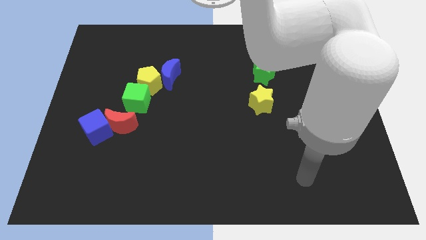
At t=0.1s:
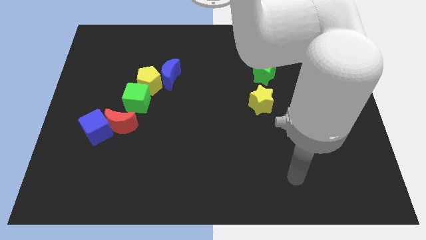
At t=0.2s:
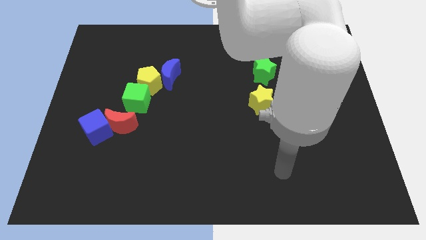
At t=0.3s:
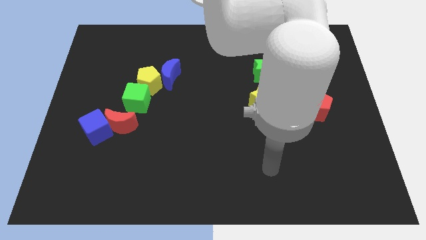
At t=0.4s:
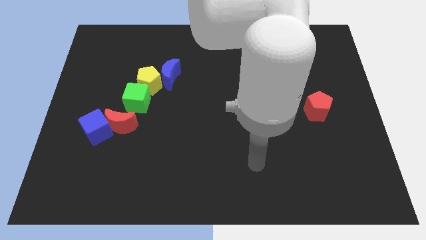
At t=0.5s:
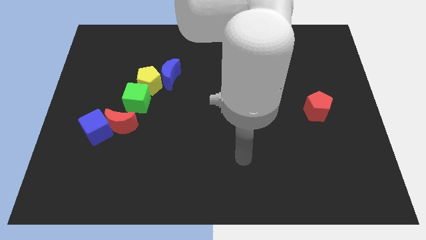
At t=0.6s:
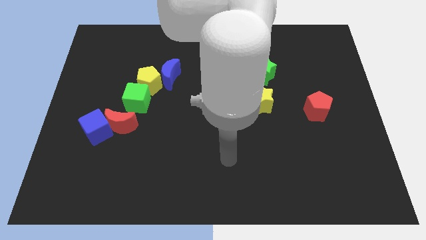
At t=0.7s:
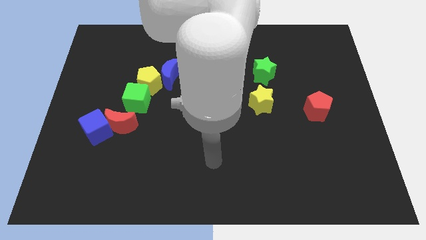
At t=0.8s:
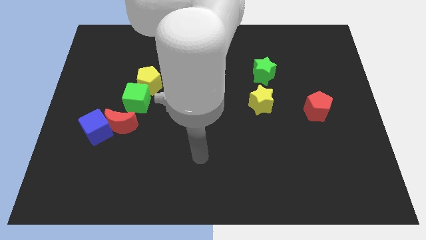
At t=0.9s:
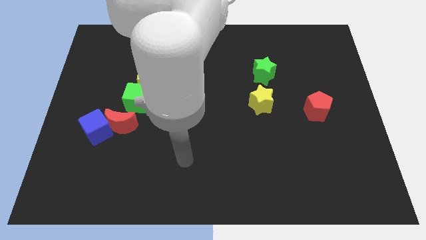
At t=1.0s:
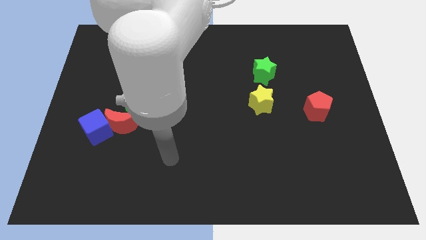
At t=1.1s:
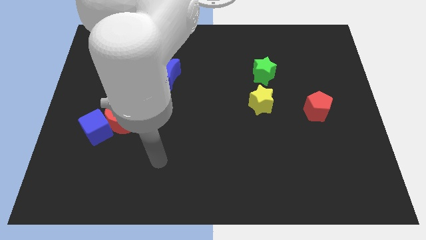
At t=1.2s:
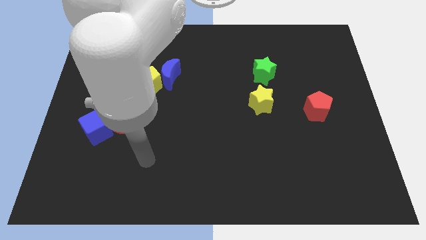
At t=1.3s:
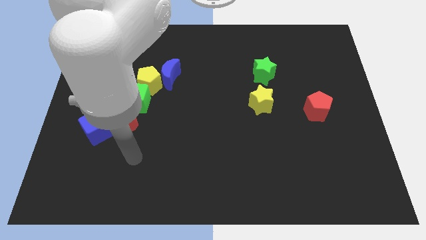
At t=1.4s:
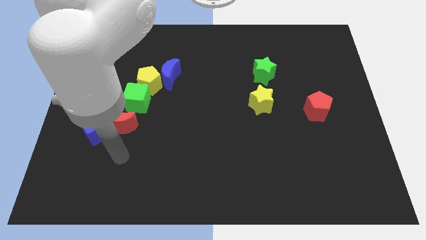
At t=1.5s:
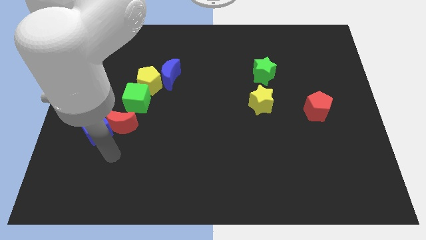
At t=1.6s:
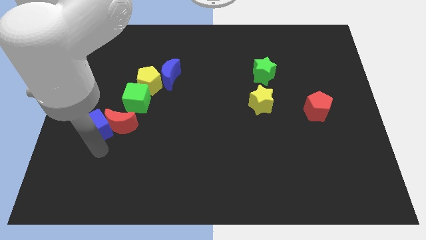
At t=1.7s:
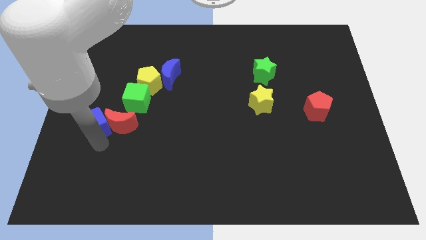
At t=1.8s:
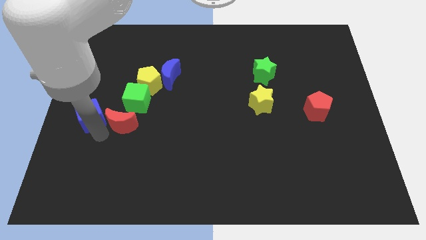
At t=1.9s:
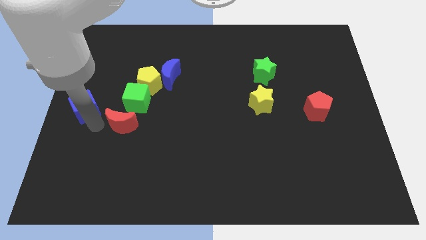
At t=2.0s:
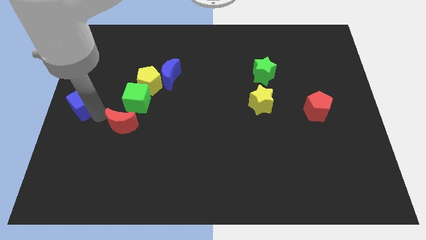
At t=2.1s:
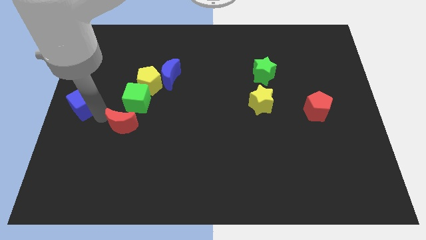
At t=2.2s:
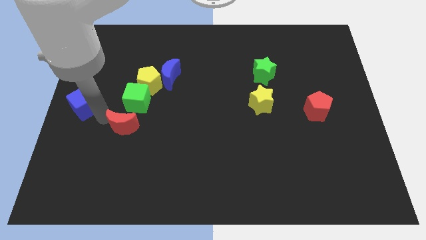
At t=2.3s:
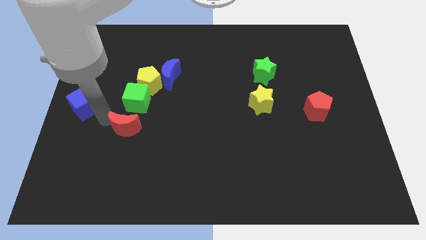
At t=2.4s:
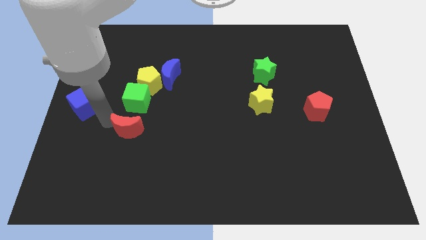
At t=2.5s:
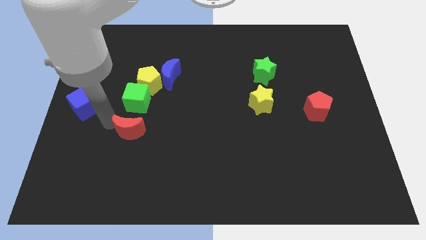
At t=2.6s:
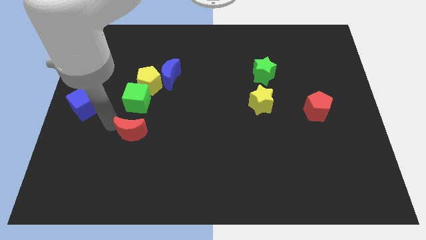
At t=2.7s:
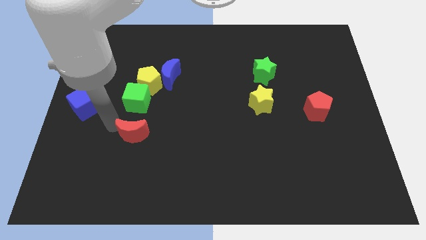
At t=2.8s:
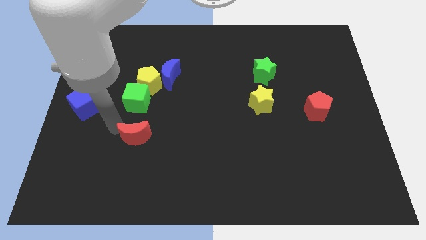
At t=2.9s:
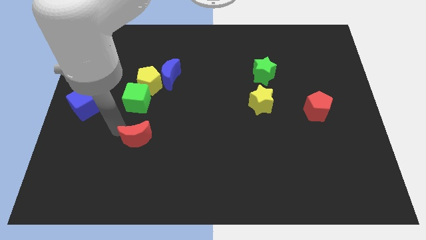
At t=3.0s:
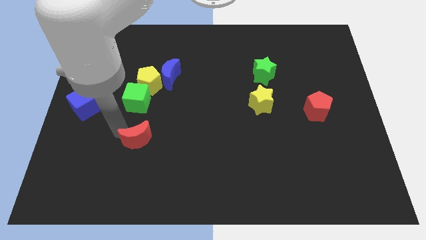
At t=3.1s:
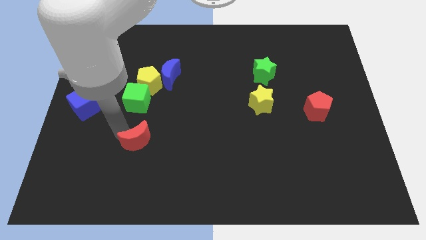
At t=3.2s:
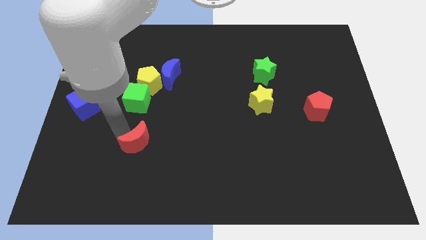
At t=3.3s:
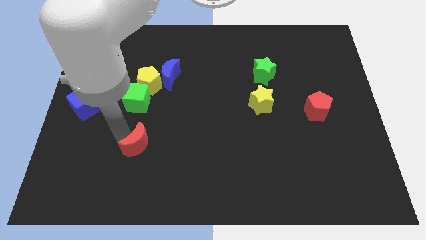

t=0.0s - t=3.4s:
slightly push the red moon diagonally down and right

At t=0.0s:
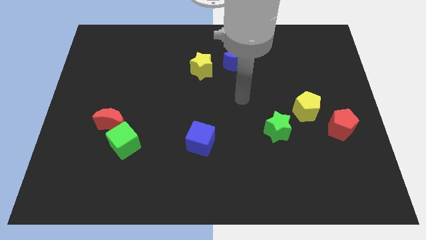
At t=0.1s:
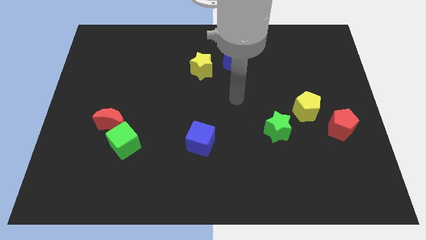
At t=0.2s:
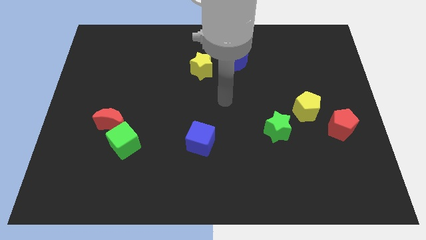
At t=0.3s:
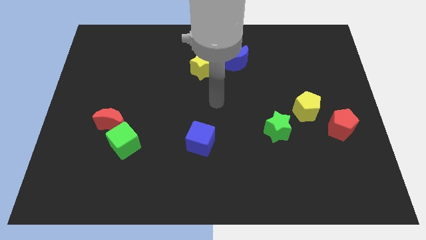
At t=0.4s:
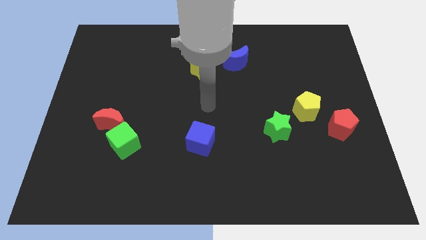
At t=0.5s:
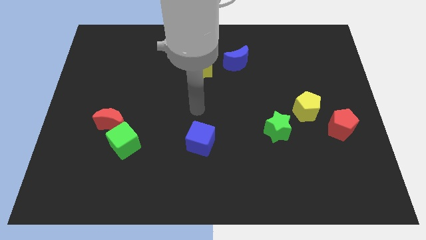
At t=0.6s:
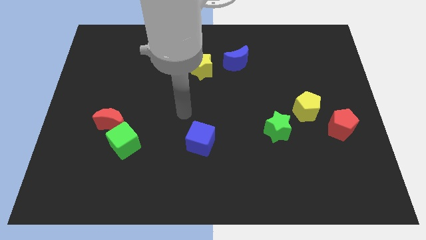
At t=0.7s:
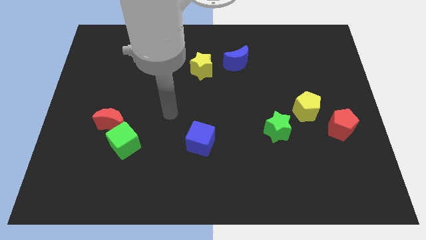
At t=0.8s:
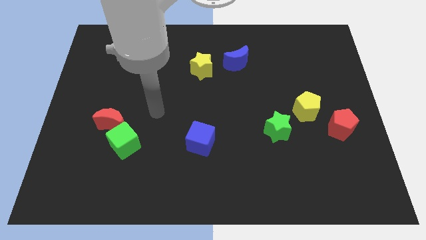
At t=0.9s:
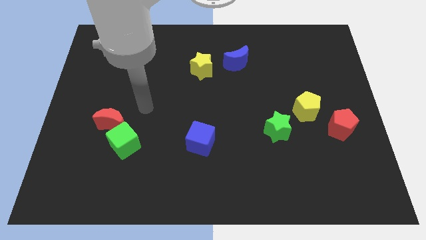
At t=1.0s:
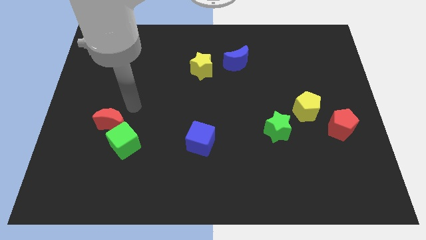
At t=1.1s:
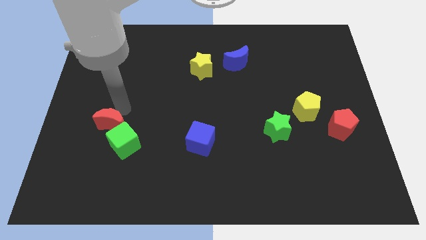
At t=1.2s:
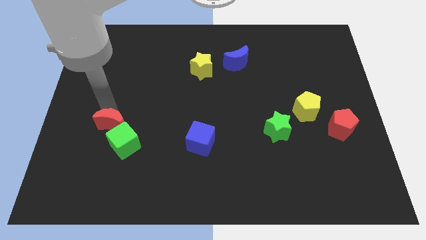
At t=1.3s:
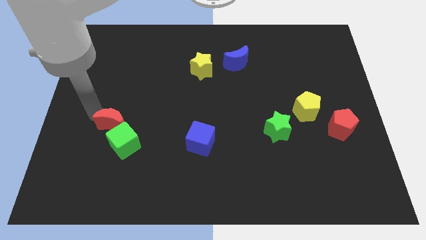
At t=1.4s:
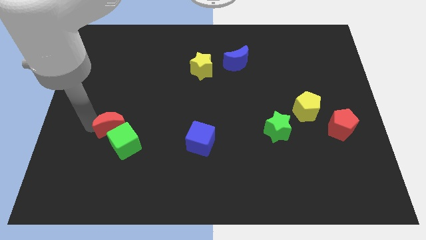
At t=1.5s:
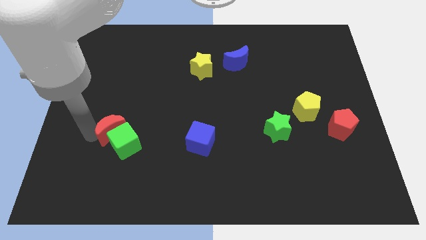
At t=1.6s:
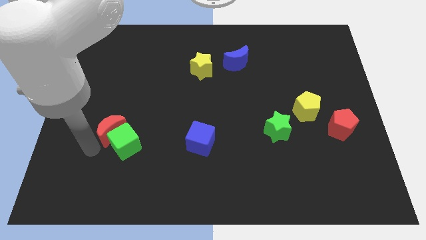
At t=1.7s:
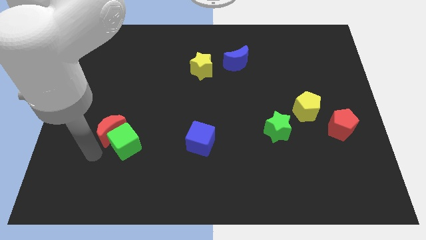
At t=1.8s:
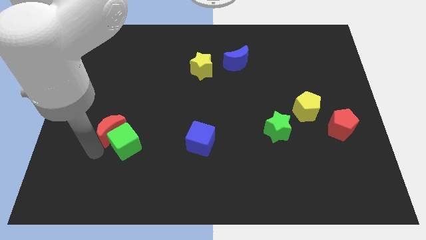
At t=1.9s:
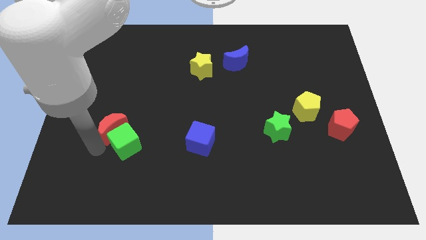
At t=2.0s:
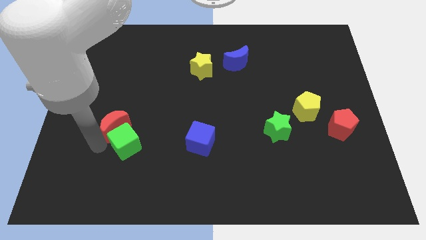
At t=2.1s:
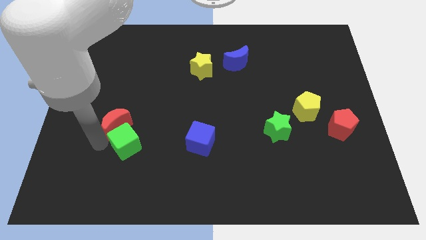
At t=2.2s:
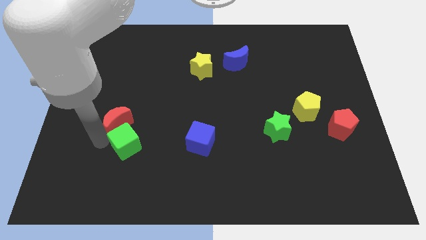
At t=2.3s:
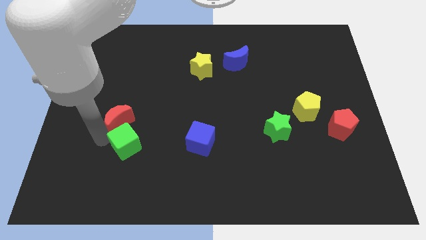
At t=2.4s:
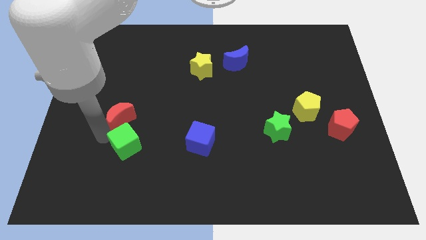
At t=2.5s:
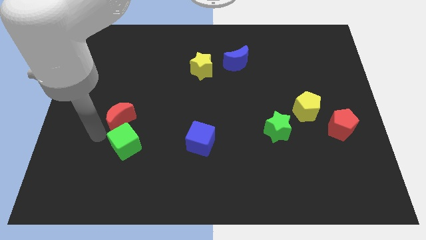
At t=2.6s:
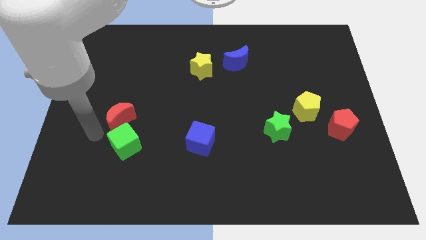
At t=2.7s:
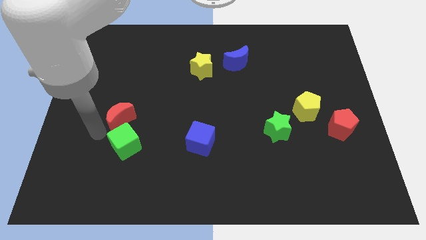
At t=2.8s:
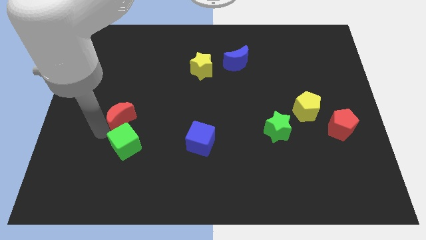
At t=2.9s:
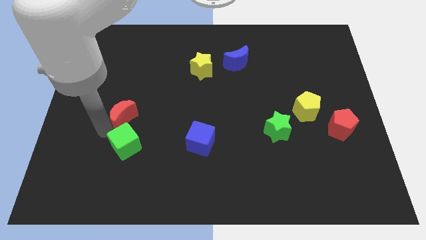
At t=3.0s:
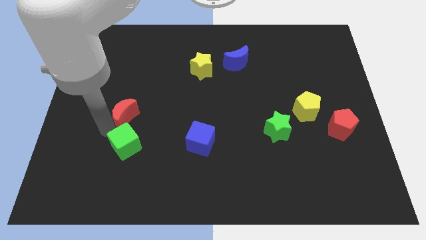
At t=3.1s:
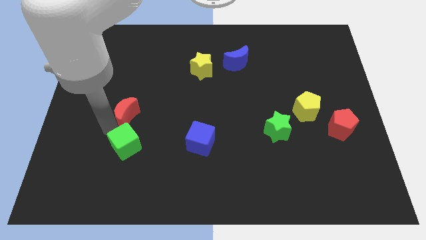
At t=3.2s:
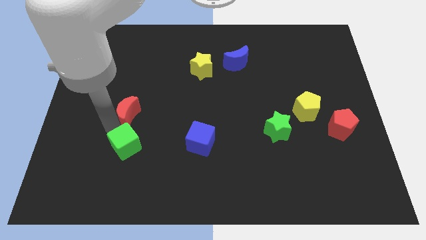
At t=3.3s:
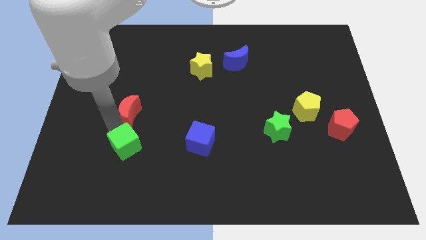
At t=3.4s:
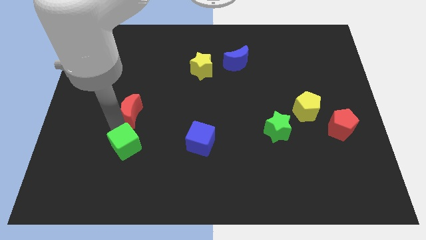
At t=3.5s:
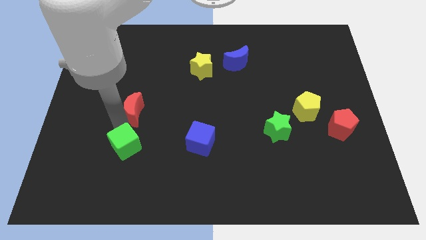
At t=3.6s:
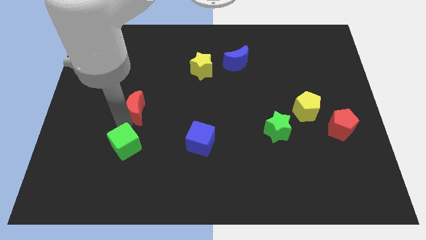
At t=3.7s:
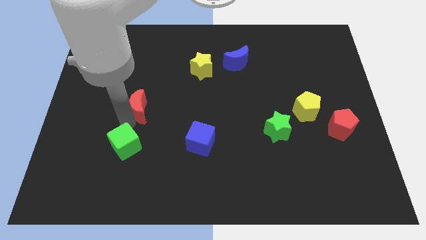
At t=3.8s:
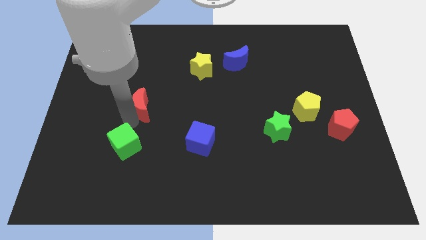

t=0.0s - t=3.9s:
move the red moon up and right slightly

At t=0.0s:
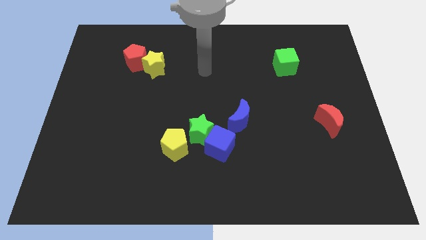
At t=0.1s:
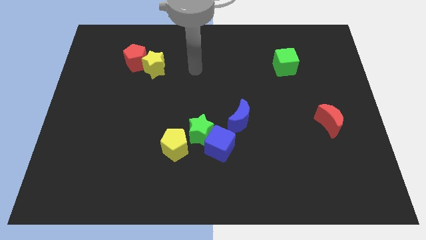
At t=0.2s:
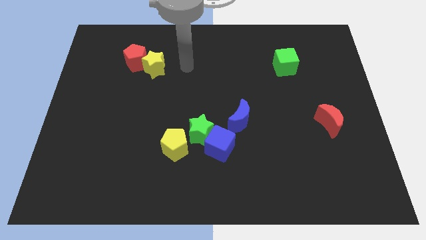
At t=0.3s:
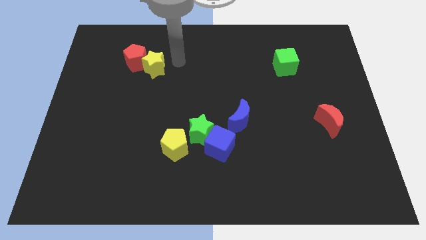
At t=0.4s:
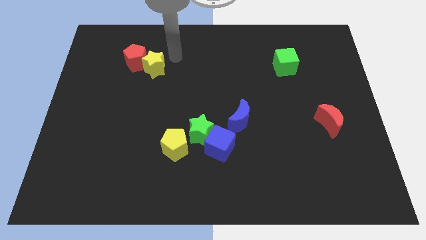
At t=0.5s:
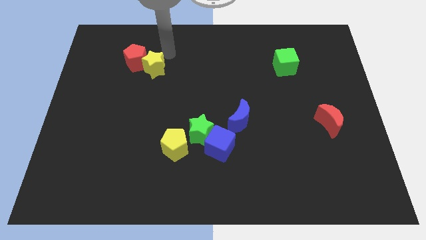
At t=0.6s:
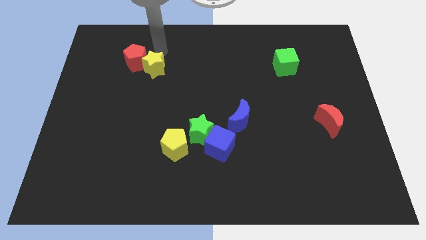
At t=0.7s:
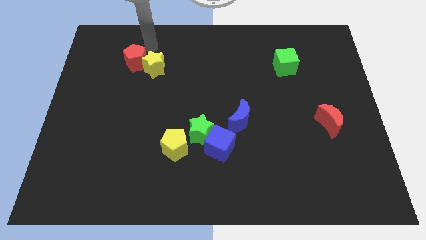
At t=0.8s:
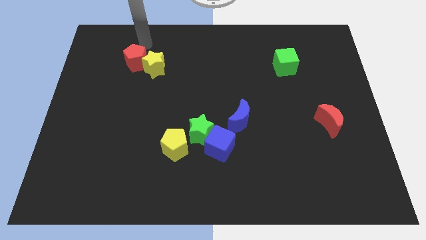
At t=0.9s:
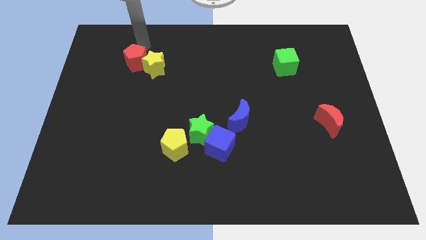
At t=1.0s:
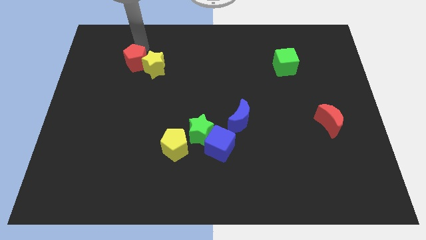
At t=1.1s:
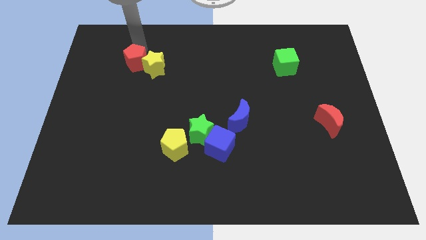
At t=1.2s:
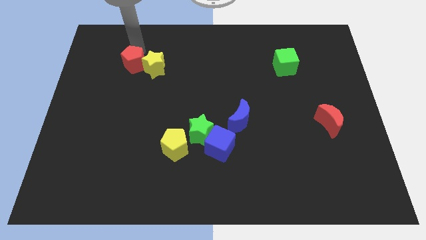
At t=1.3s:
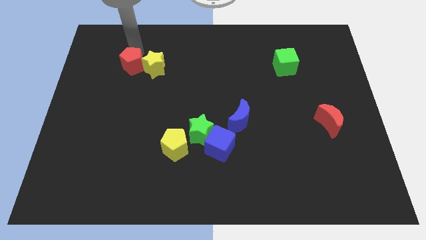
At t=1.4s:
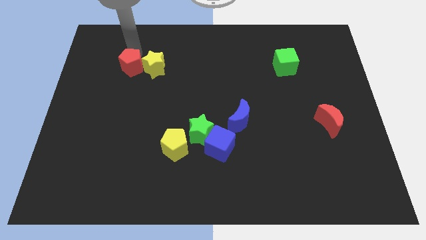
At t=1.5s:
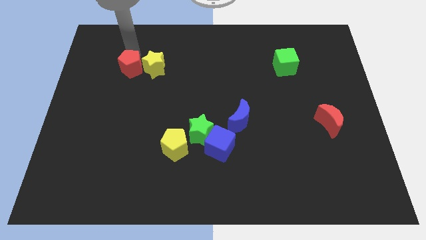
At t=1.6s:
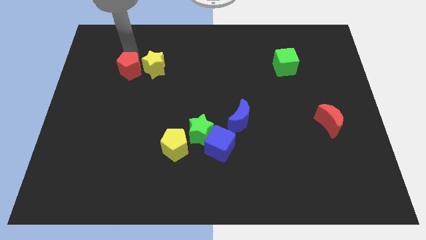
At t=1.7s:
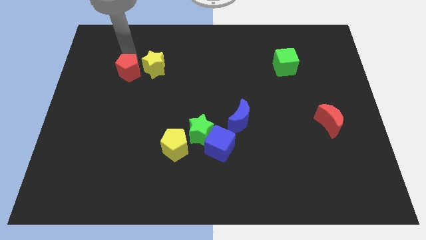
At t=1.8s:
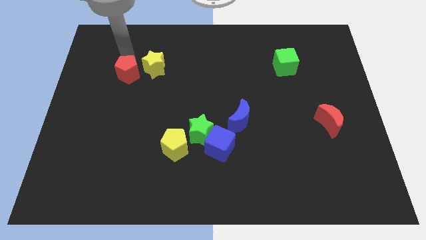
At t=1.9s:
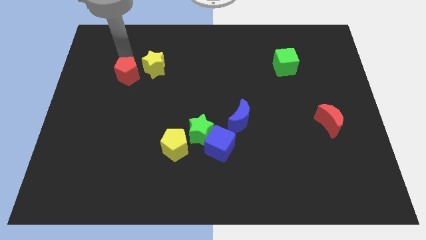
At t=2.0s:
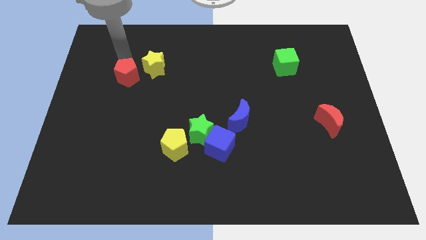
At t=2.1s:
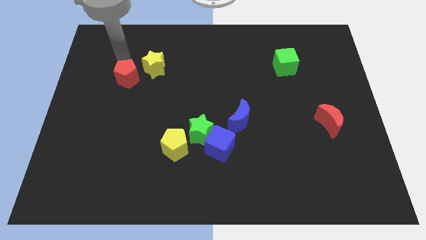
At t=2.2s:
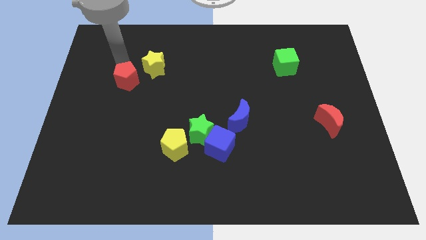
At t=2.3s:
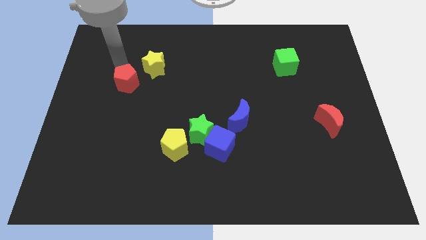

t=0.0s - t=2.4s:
slightly slide the red pentagon downwards
